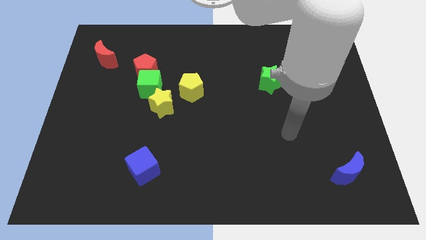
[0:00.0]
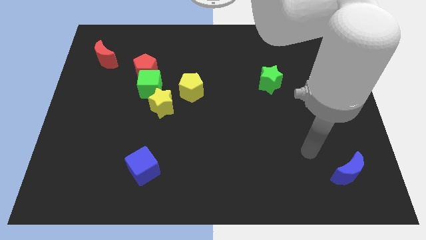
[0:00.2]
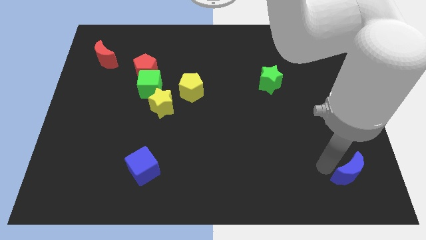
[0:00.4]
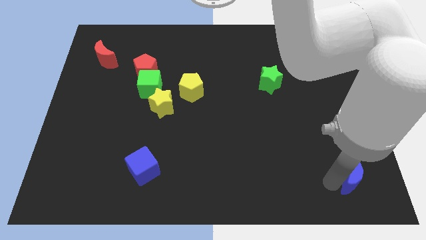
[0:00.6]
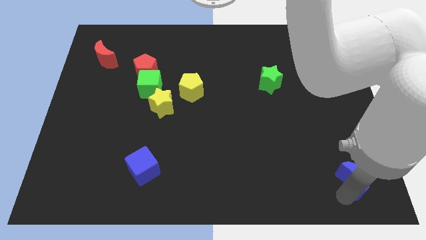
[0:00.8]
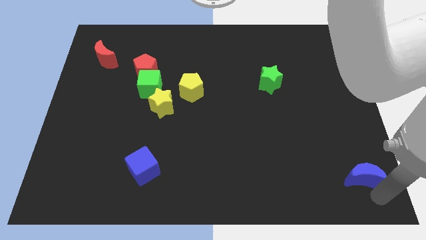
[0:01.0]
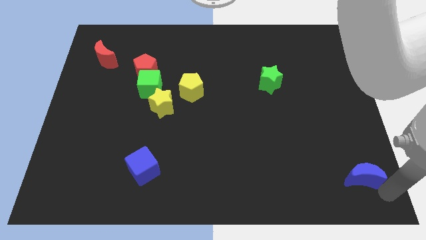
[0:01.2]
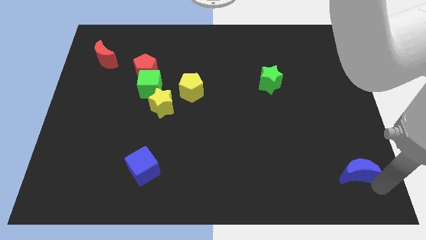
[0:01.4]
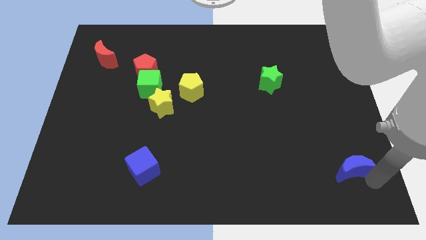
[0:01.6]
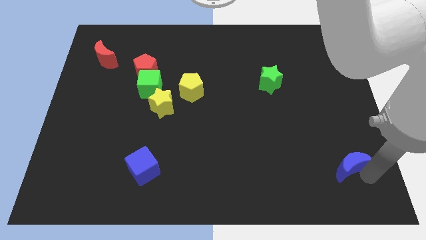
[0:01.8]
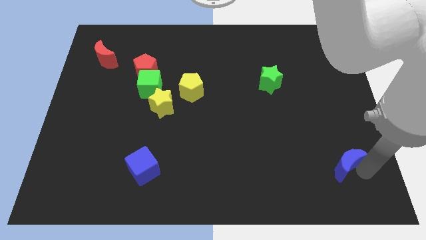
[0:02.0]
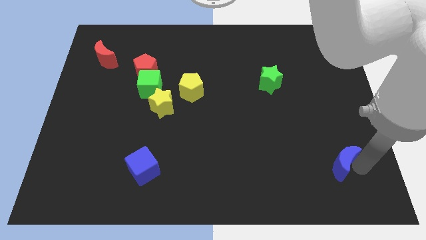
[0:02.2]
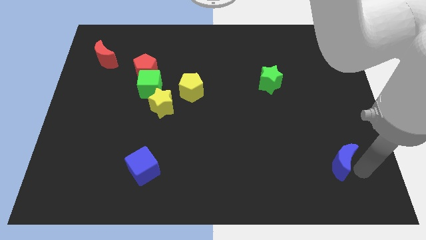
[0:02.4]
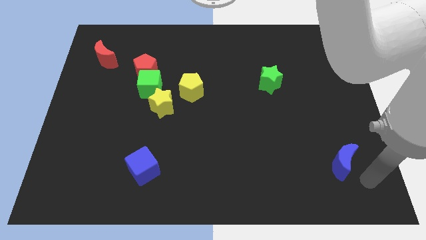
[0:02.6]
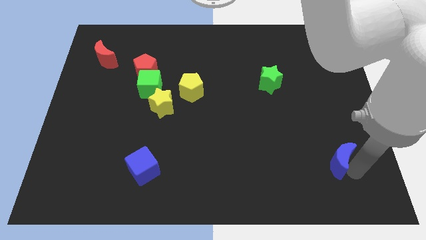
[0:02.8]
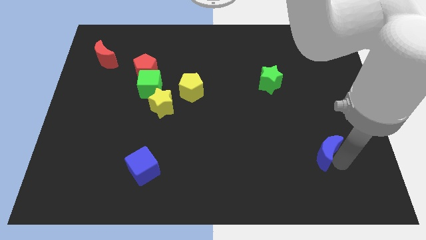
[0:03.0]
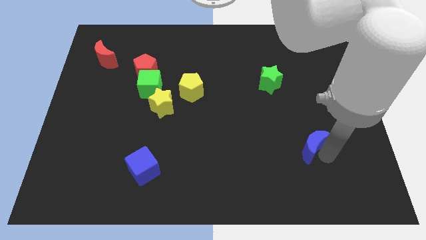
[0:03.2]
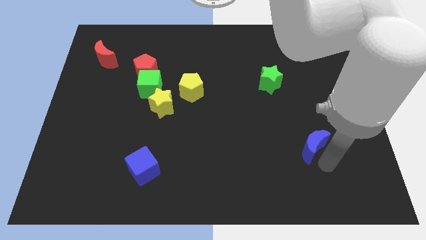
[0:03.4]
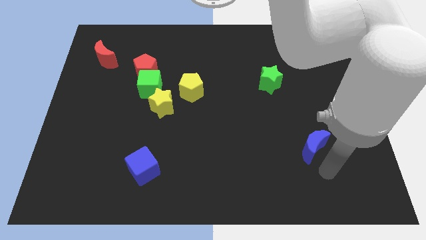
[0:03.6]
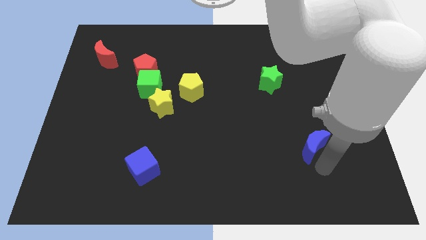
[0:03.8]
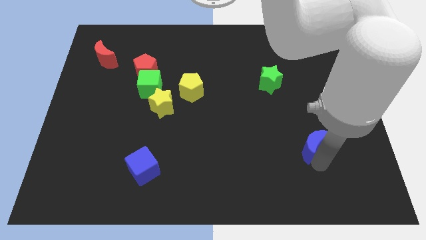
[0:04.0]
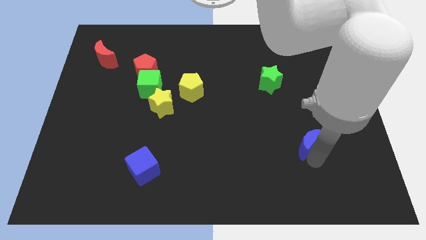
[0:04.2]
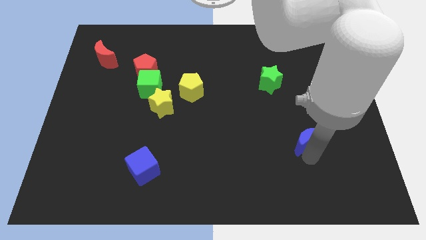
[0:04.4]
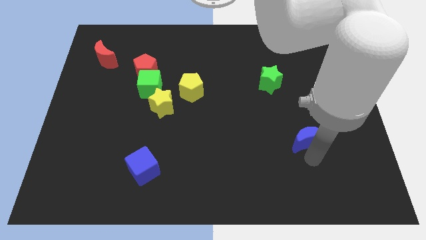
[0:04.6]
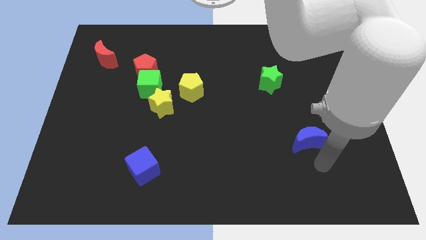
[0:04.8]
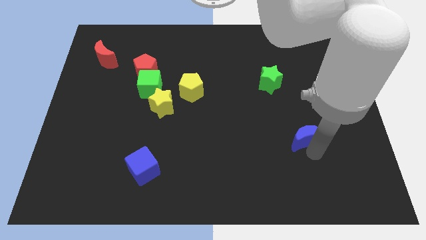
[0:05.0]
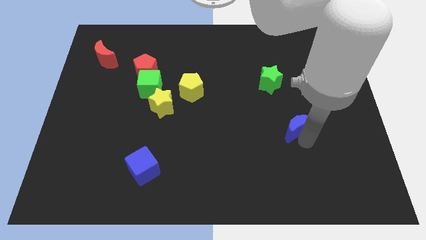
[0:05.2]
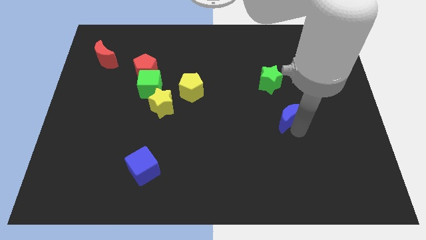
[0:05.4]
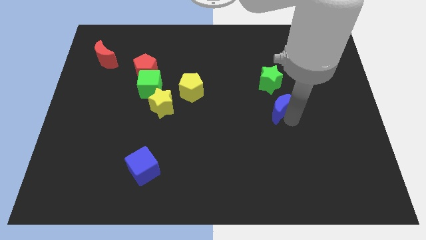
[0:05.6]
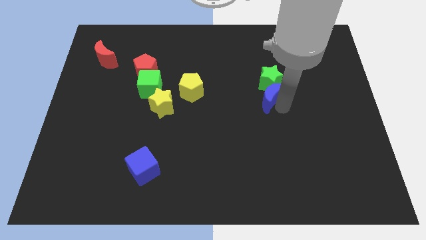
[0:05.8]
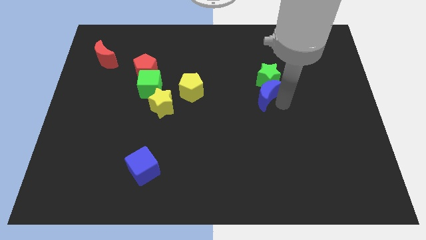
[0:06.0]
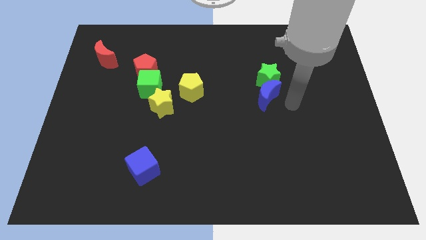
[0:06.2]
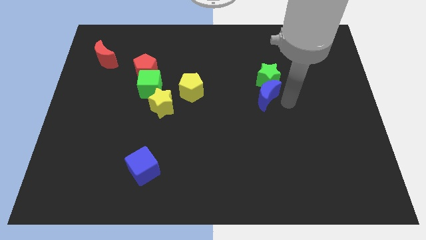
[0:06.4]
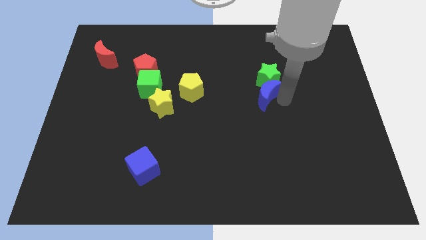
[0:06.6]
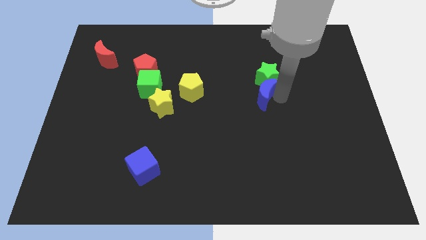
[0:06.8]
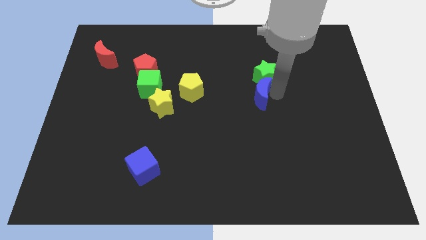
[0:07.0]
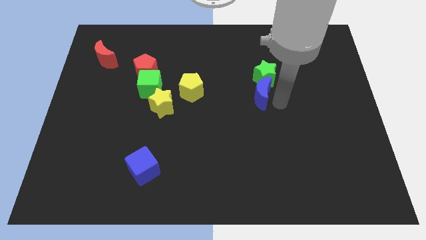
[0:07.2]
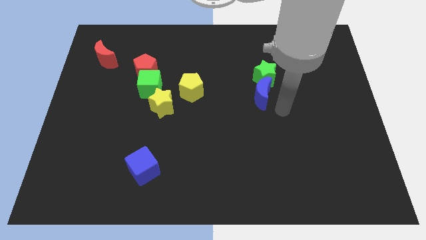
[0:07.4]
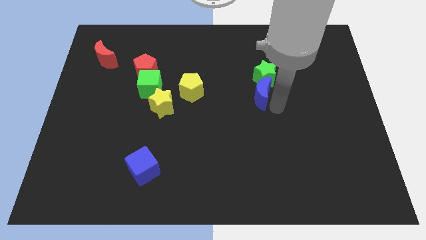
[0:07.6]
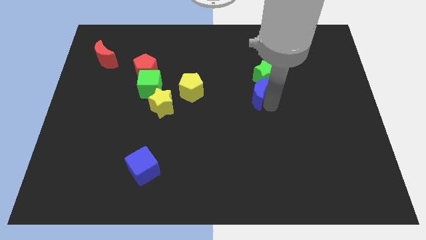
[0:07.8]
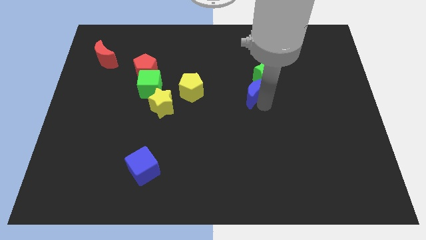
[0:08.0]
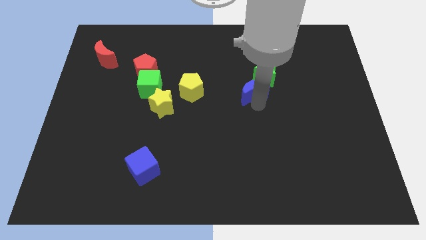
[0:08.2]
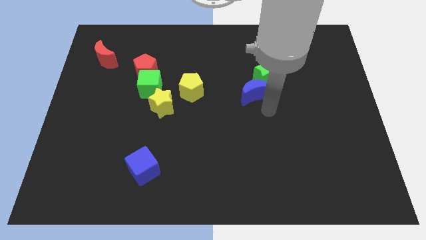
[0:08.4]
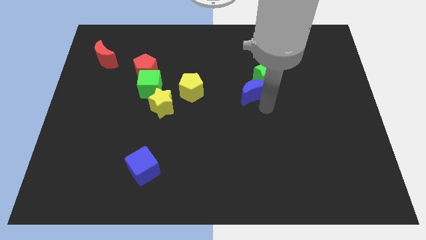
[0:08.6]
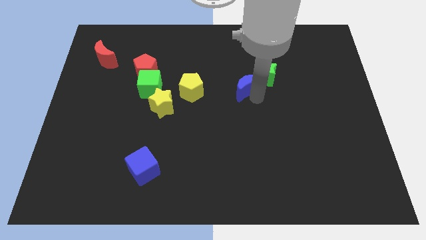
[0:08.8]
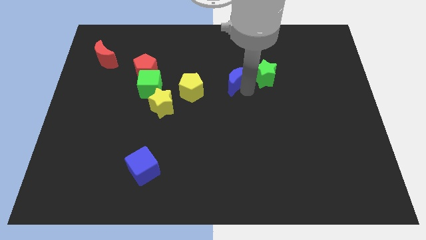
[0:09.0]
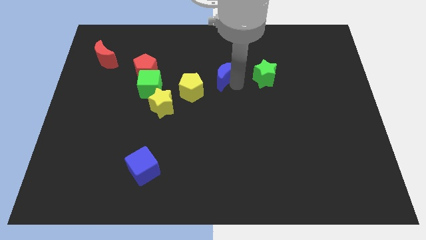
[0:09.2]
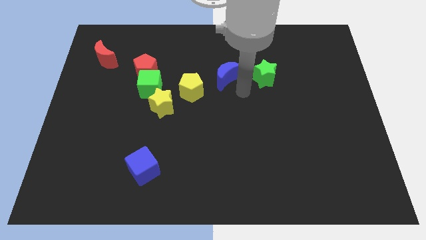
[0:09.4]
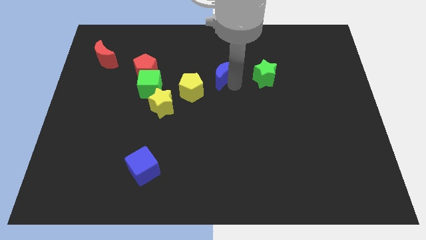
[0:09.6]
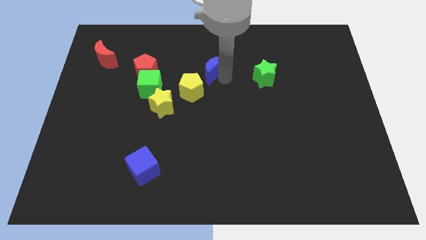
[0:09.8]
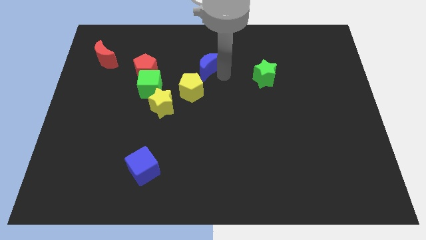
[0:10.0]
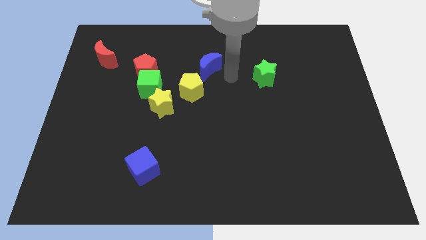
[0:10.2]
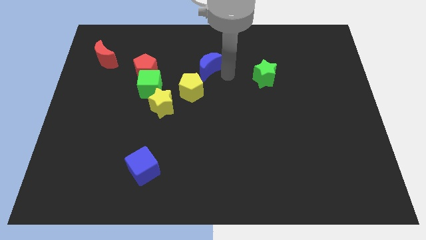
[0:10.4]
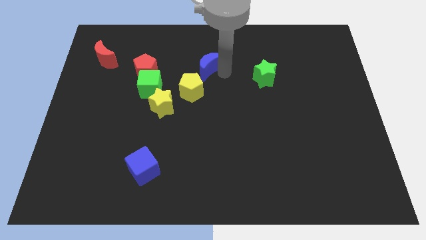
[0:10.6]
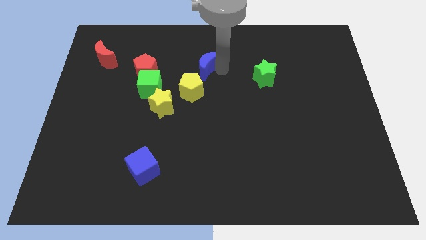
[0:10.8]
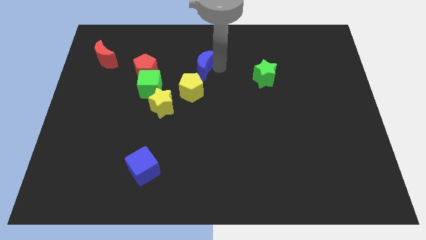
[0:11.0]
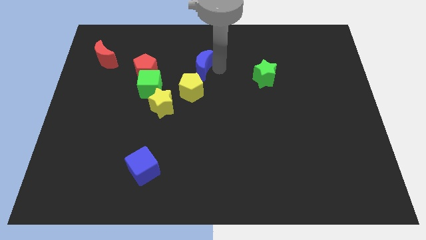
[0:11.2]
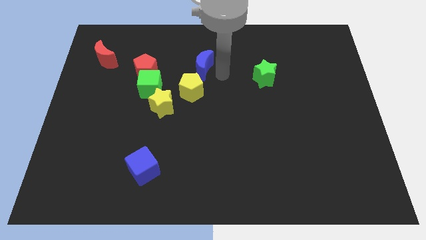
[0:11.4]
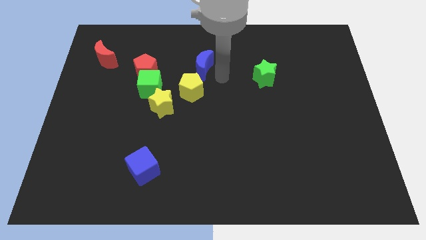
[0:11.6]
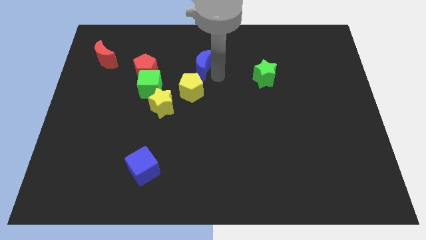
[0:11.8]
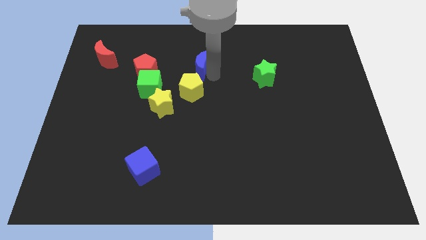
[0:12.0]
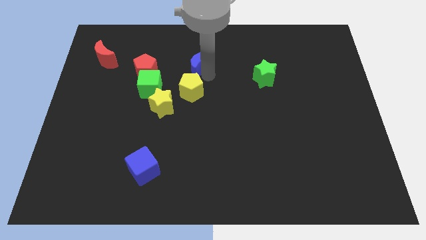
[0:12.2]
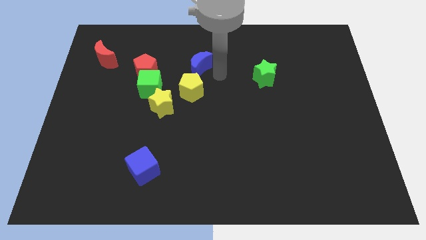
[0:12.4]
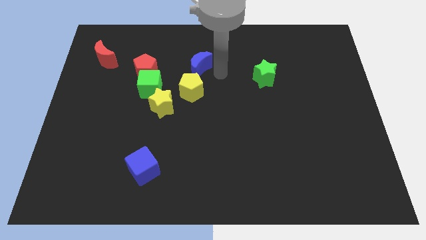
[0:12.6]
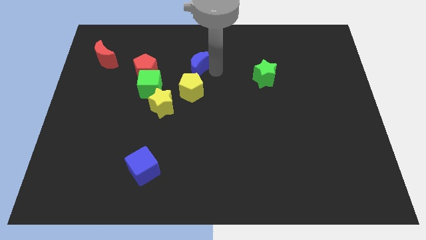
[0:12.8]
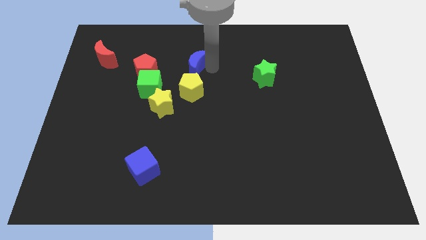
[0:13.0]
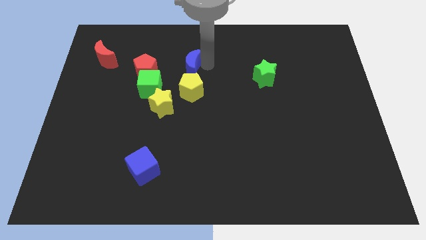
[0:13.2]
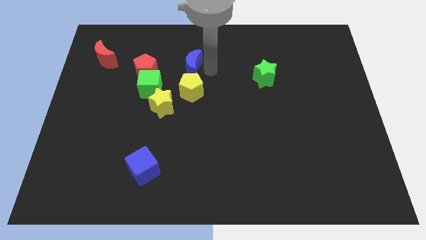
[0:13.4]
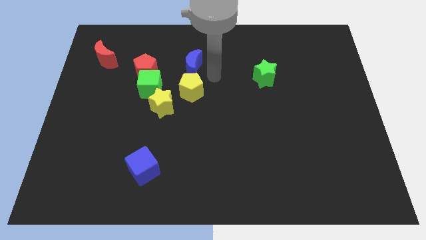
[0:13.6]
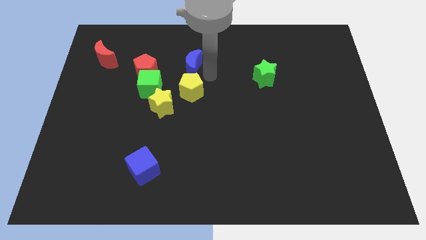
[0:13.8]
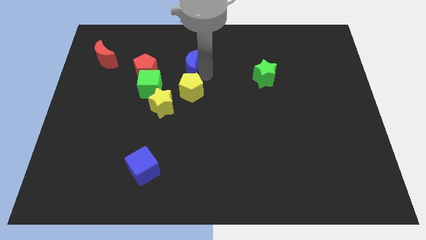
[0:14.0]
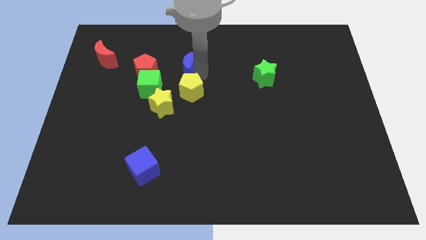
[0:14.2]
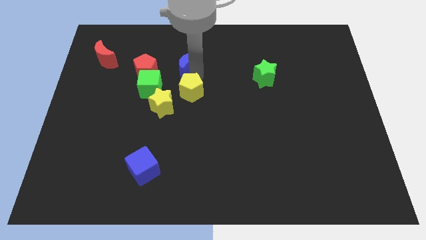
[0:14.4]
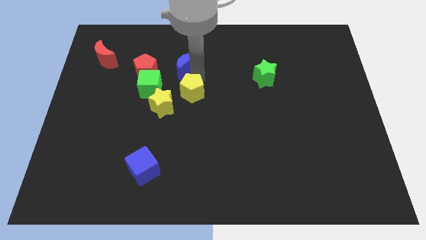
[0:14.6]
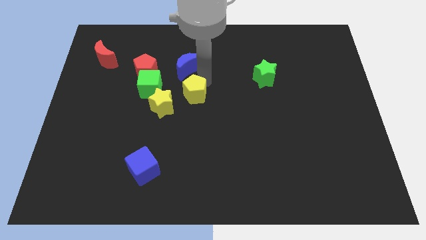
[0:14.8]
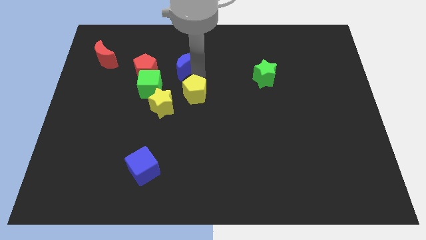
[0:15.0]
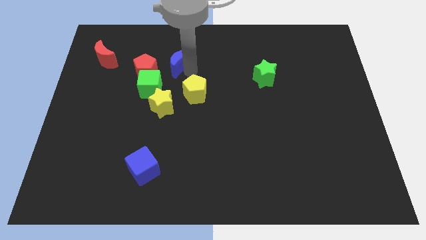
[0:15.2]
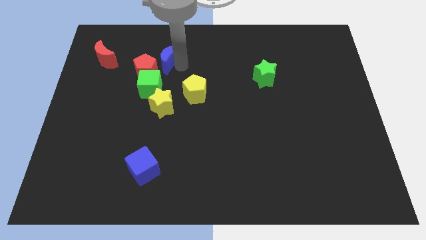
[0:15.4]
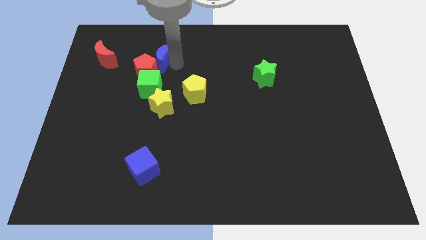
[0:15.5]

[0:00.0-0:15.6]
push the blue moon to the right of the red moon

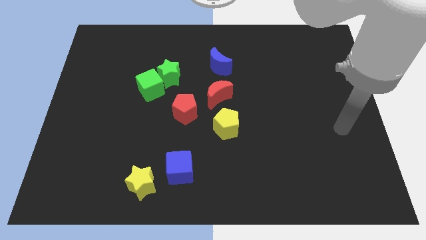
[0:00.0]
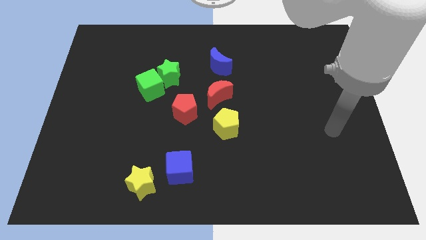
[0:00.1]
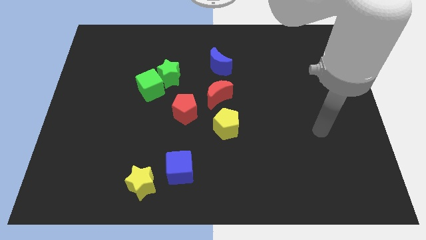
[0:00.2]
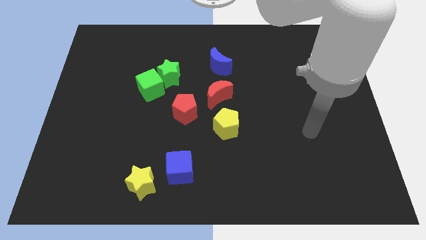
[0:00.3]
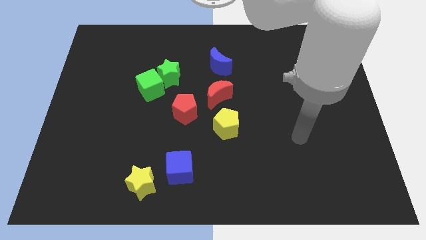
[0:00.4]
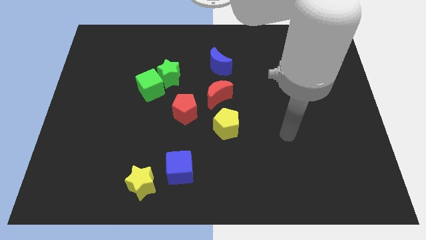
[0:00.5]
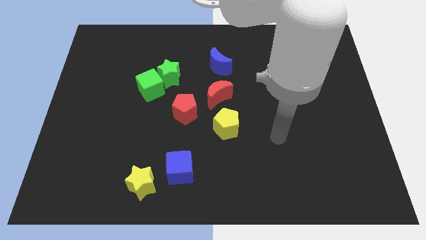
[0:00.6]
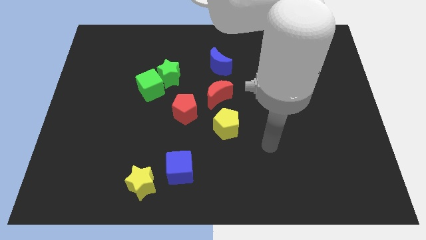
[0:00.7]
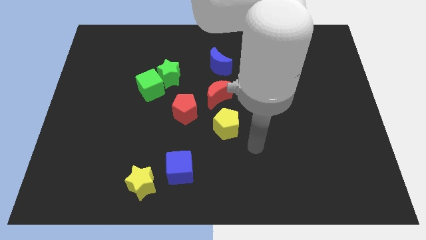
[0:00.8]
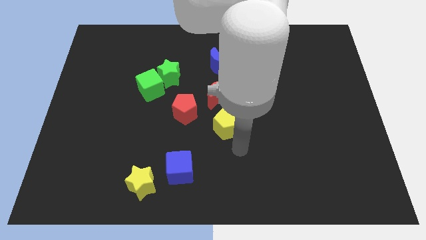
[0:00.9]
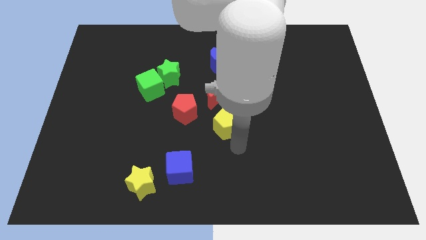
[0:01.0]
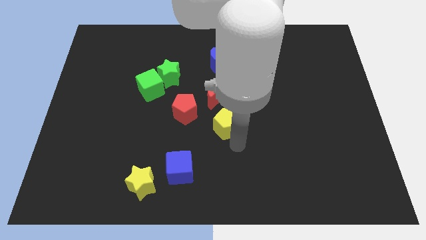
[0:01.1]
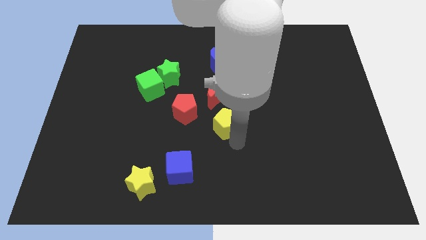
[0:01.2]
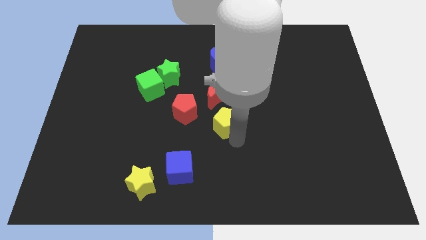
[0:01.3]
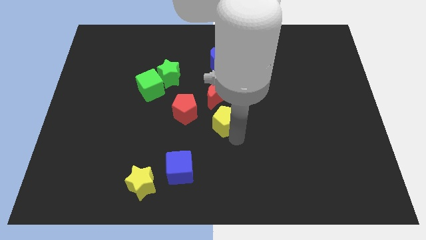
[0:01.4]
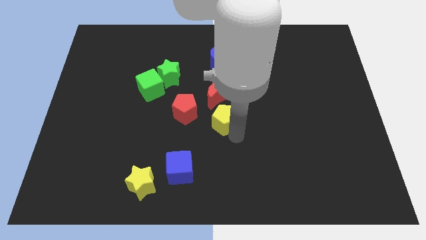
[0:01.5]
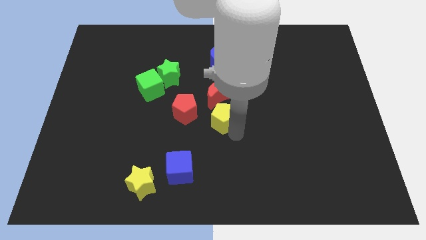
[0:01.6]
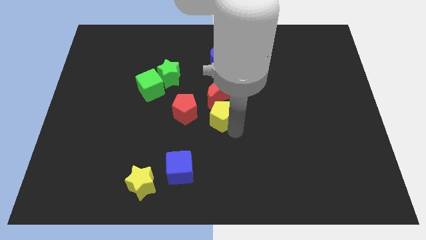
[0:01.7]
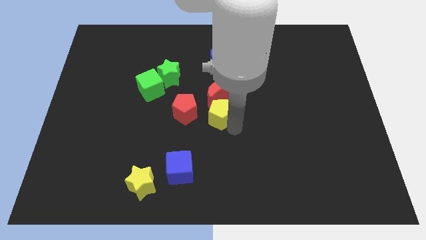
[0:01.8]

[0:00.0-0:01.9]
push the yellow pentagon to the bottom of the blue moon
